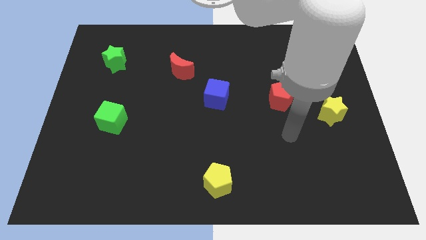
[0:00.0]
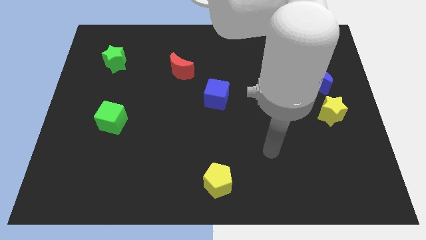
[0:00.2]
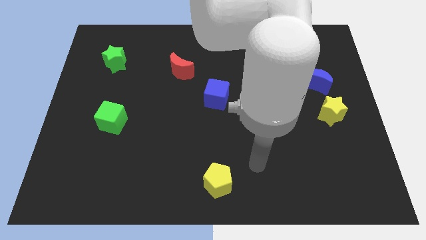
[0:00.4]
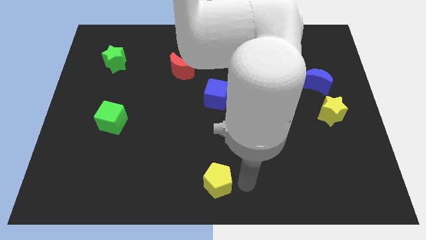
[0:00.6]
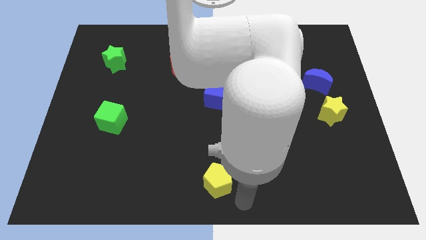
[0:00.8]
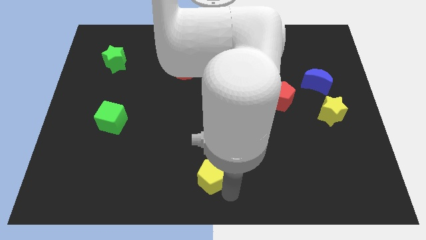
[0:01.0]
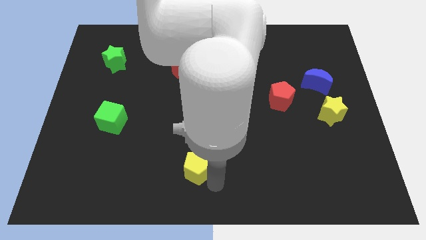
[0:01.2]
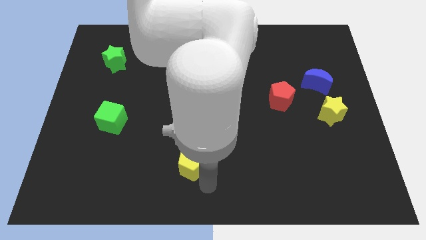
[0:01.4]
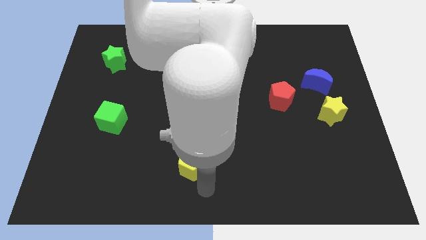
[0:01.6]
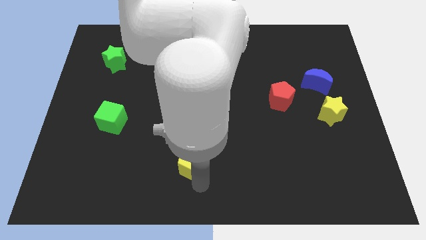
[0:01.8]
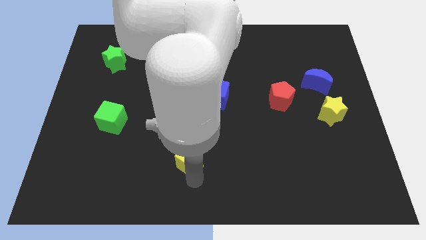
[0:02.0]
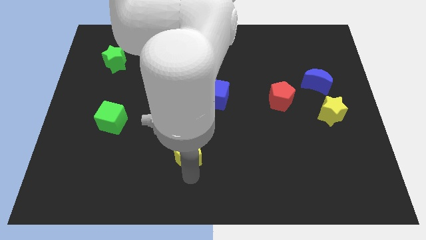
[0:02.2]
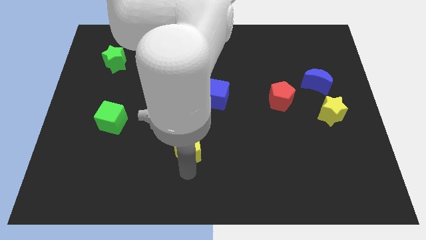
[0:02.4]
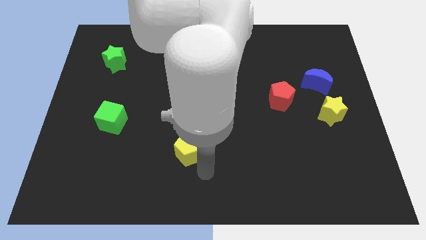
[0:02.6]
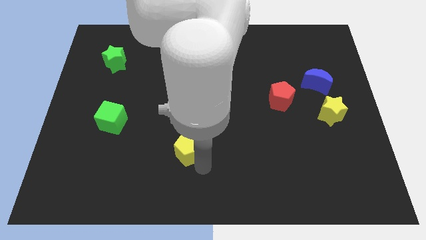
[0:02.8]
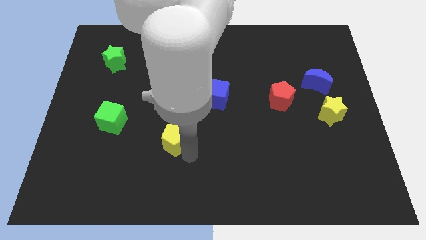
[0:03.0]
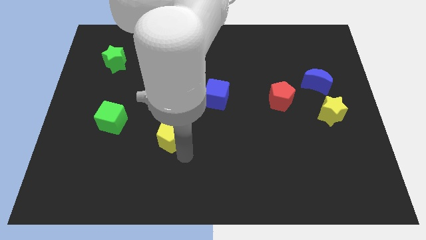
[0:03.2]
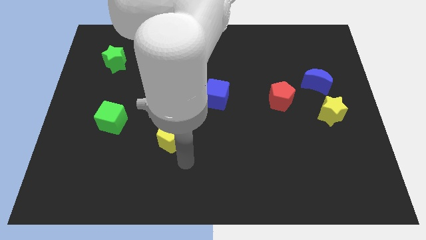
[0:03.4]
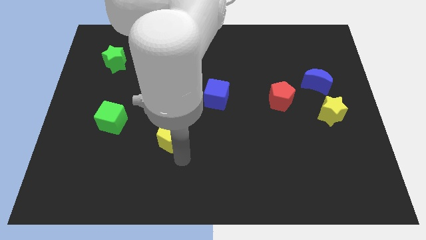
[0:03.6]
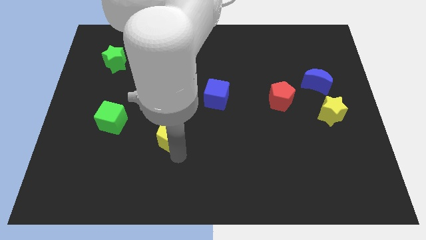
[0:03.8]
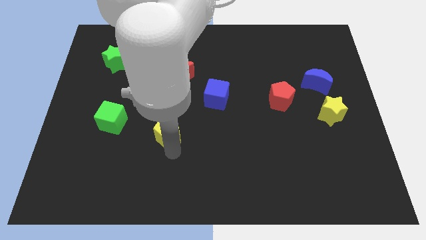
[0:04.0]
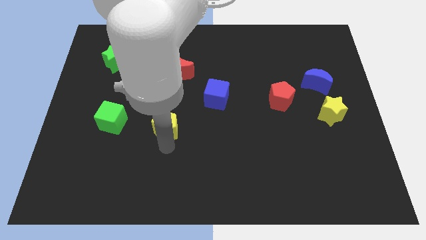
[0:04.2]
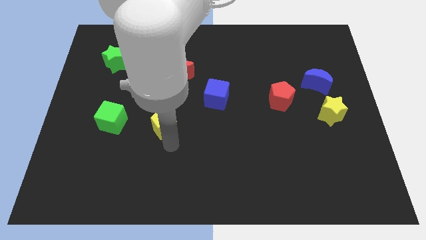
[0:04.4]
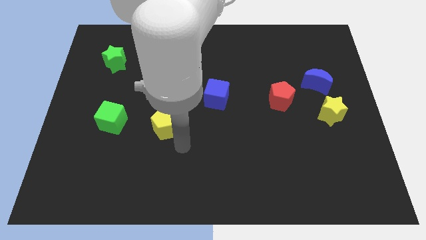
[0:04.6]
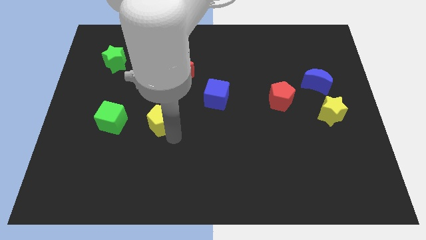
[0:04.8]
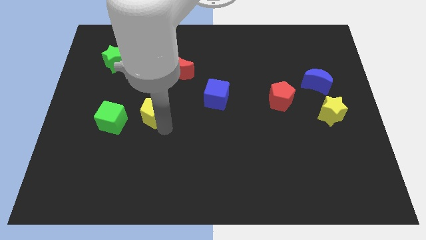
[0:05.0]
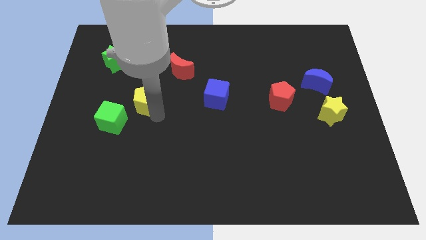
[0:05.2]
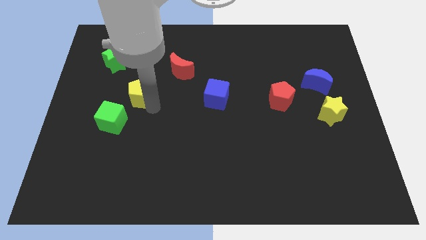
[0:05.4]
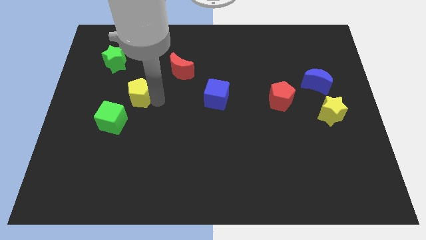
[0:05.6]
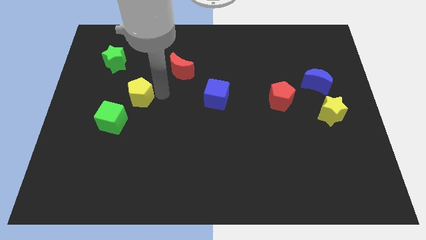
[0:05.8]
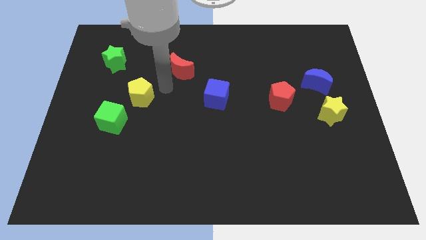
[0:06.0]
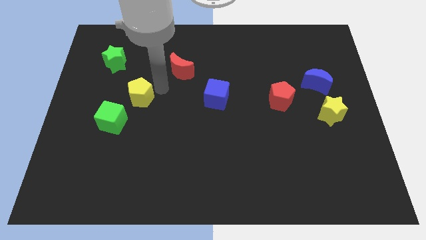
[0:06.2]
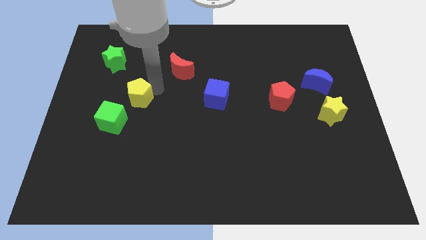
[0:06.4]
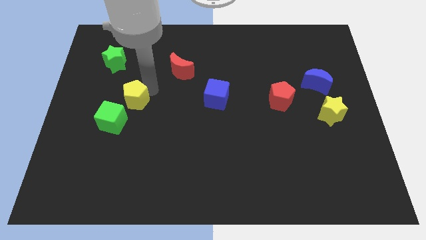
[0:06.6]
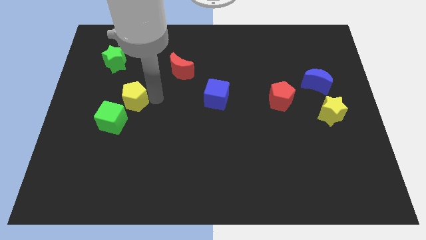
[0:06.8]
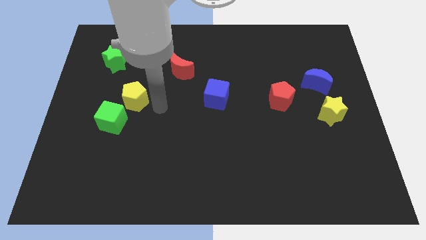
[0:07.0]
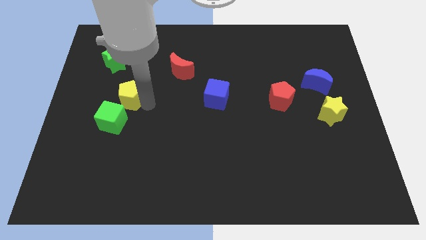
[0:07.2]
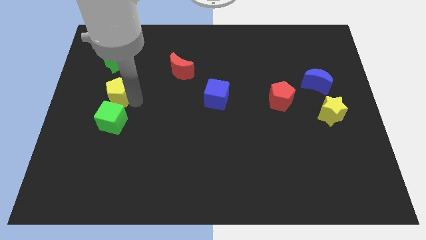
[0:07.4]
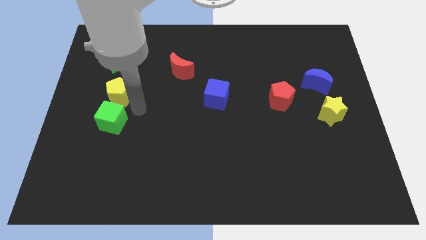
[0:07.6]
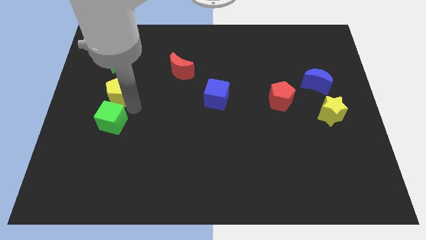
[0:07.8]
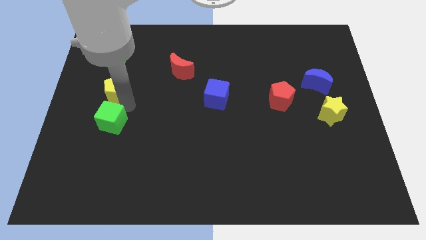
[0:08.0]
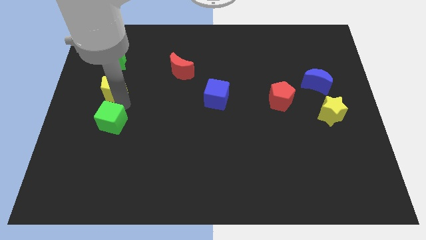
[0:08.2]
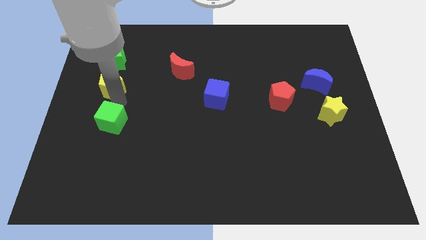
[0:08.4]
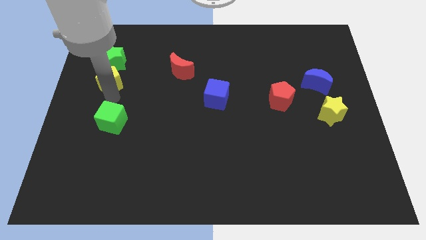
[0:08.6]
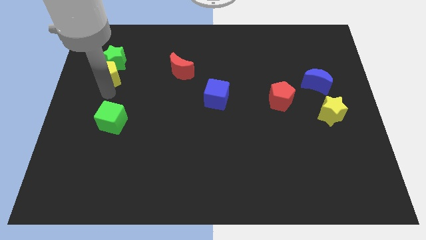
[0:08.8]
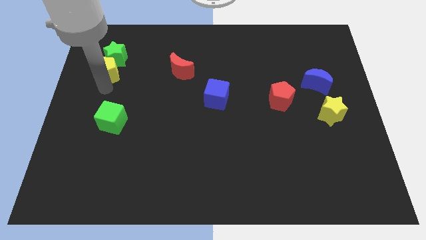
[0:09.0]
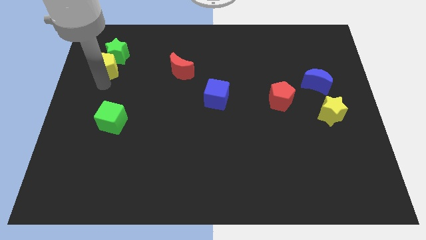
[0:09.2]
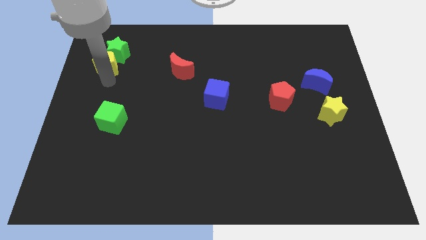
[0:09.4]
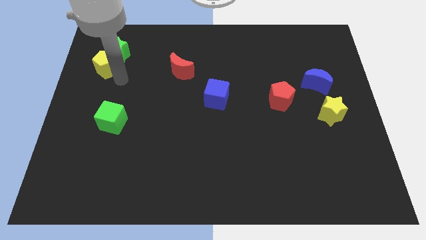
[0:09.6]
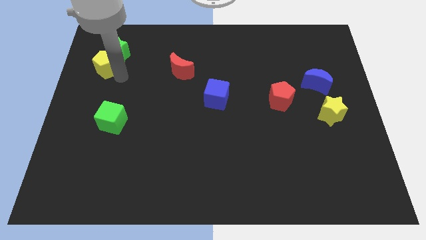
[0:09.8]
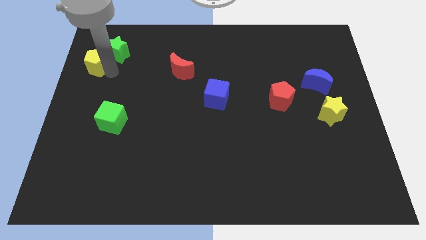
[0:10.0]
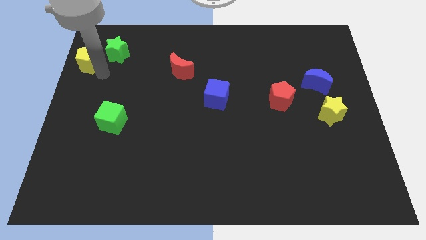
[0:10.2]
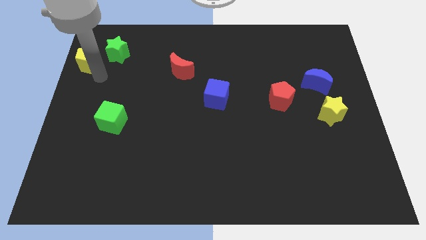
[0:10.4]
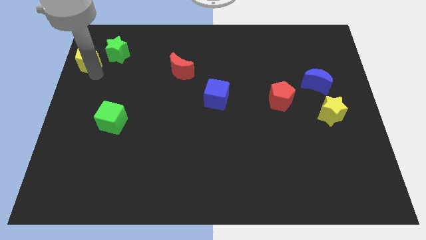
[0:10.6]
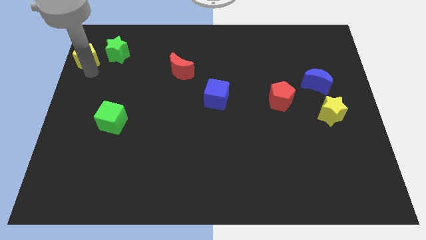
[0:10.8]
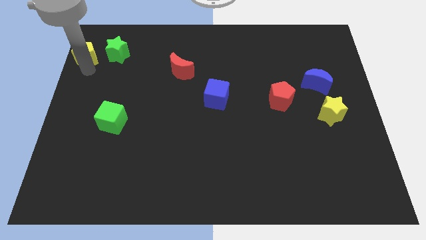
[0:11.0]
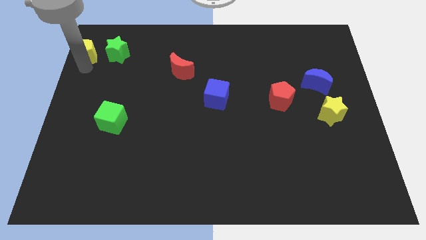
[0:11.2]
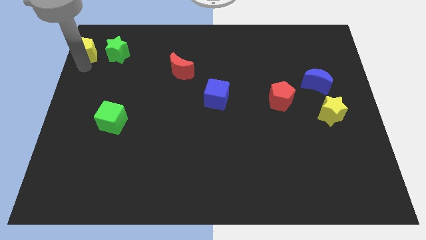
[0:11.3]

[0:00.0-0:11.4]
slide the yellow pentagon to the upper left corner

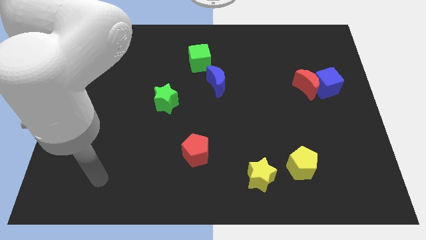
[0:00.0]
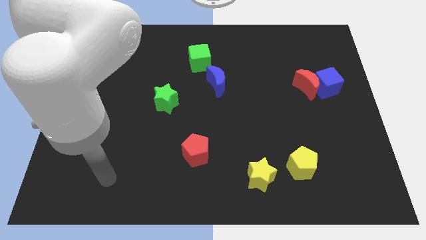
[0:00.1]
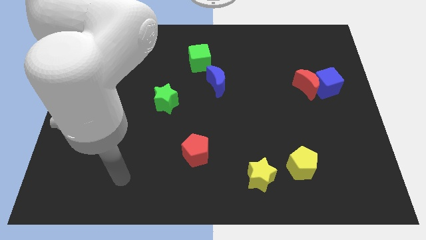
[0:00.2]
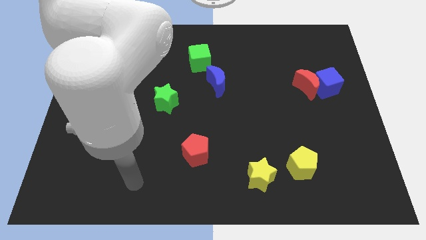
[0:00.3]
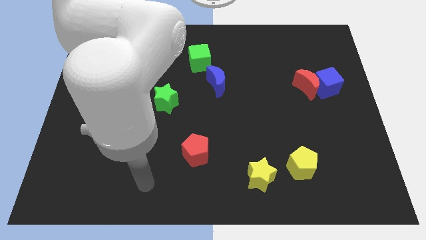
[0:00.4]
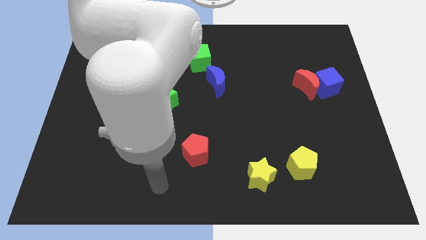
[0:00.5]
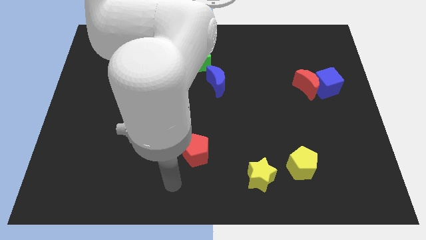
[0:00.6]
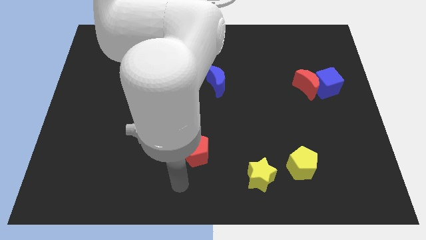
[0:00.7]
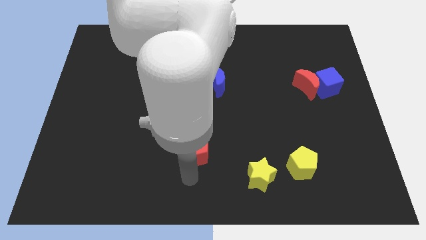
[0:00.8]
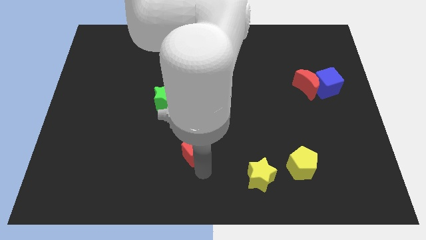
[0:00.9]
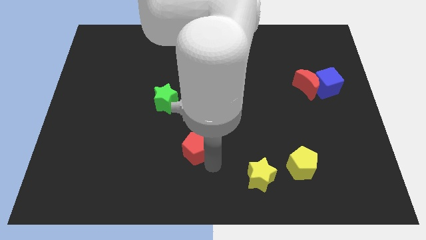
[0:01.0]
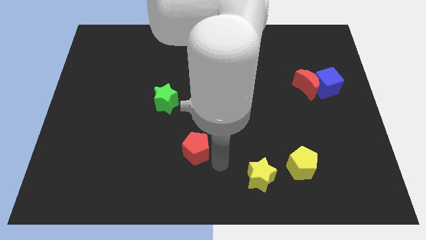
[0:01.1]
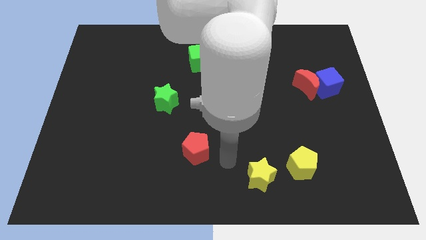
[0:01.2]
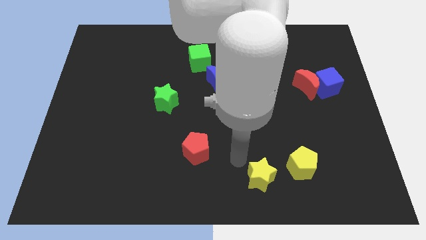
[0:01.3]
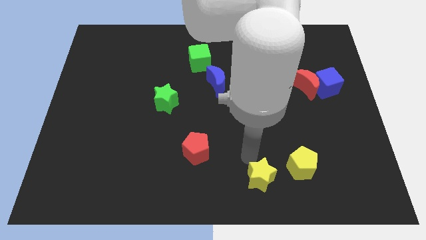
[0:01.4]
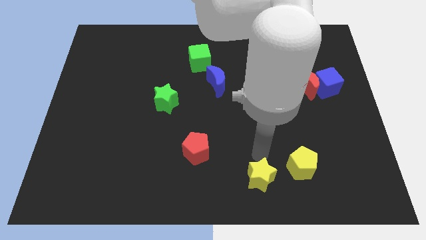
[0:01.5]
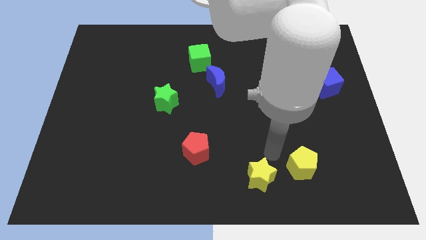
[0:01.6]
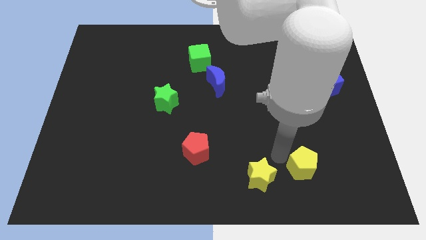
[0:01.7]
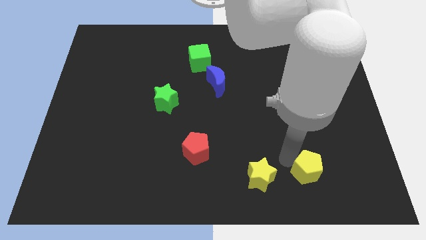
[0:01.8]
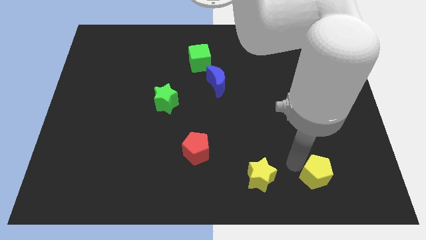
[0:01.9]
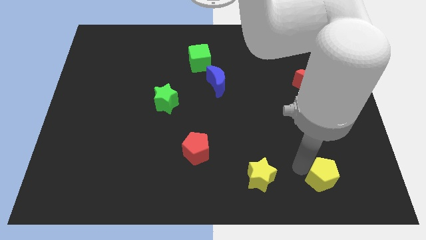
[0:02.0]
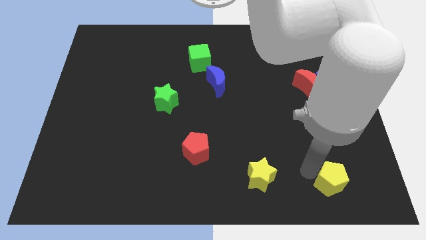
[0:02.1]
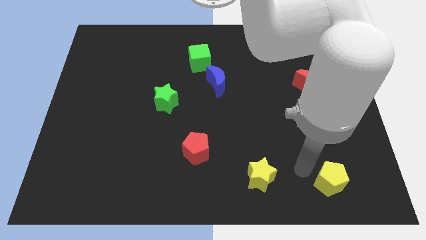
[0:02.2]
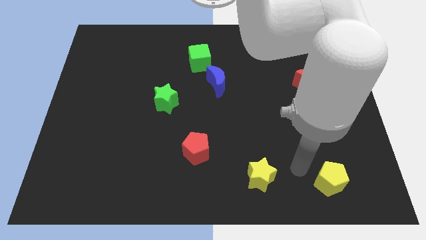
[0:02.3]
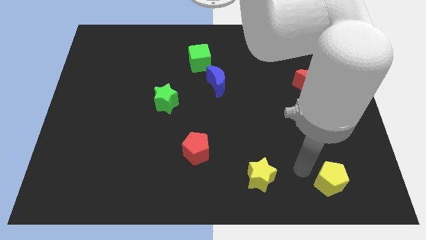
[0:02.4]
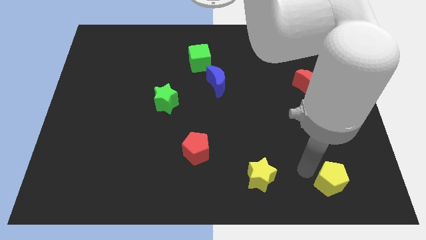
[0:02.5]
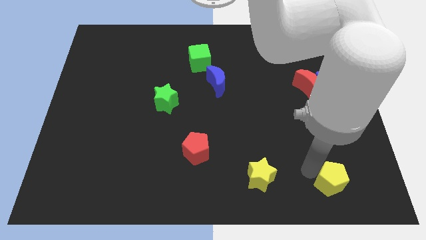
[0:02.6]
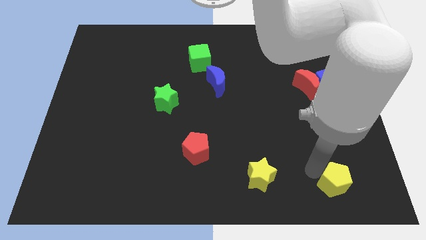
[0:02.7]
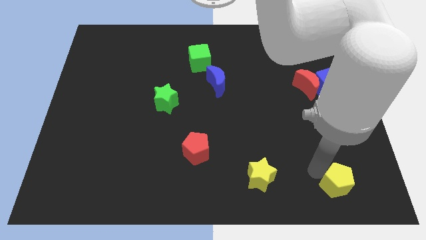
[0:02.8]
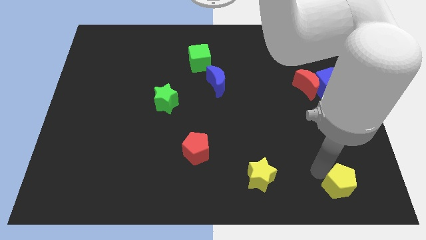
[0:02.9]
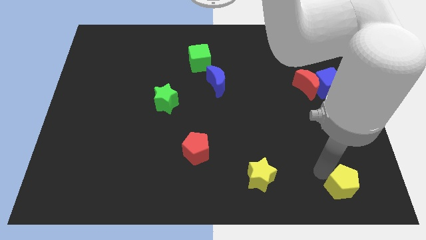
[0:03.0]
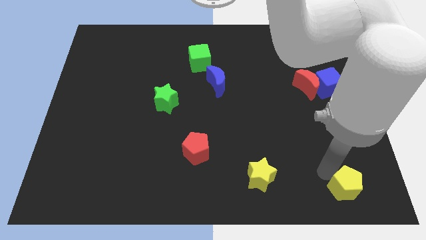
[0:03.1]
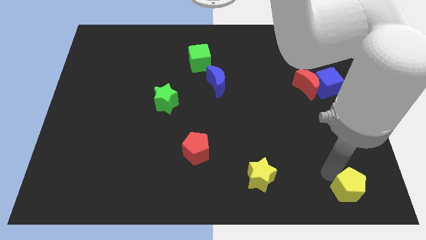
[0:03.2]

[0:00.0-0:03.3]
put the yellow pentagon to the bottom right
